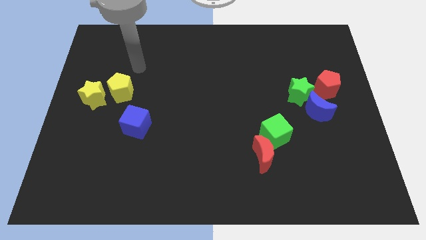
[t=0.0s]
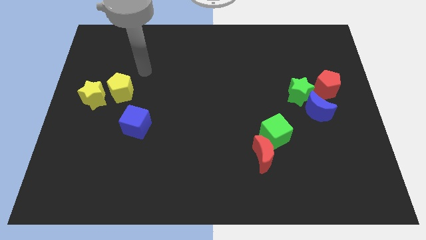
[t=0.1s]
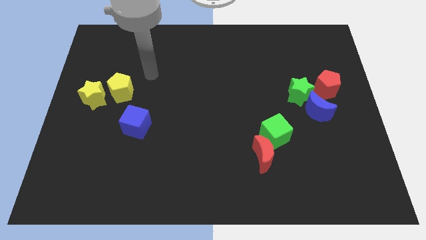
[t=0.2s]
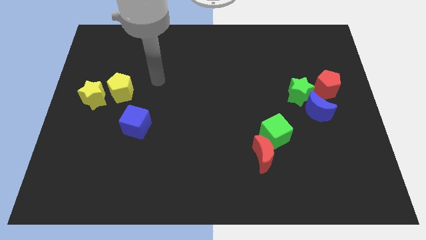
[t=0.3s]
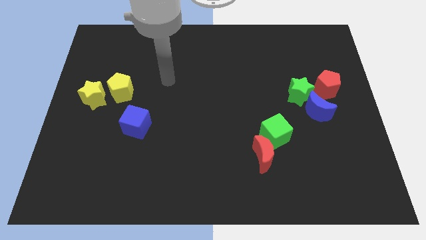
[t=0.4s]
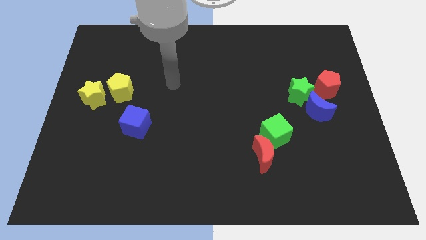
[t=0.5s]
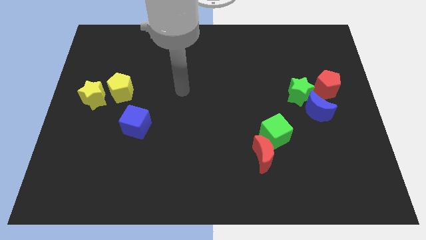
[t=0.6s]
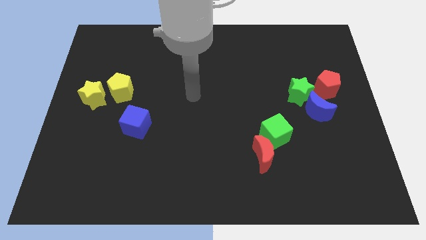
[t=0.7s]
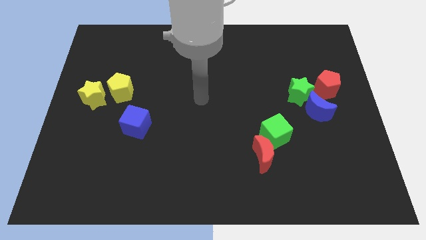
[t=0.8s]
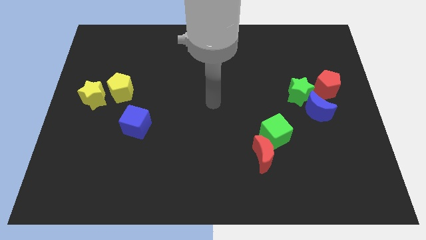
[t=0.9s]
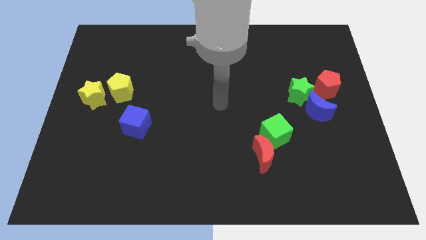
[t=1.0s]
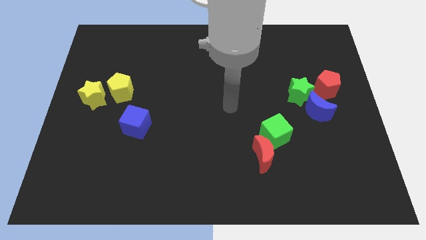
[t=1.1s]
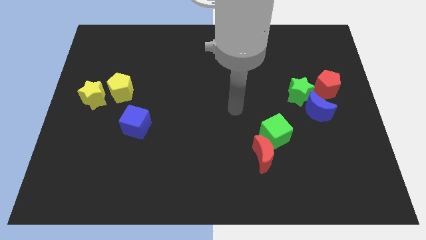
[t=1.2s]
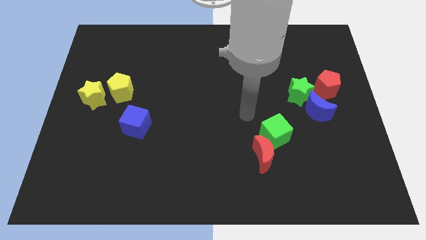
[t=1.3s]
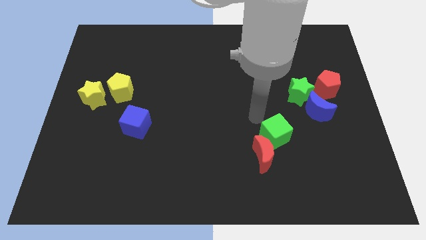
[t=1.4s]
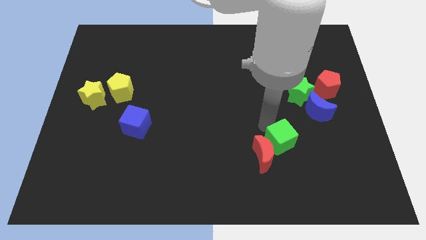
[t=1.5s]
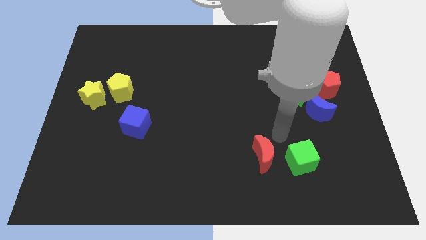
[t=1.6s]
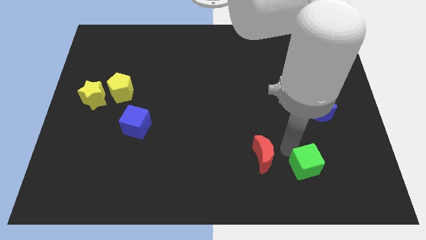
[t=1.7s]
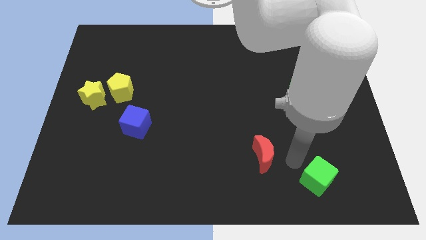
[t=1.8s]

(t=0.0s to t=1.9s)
pull the red moon apart from the green cube

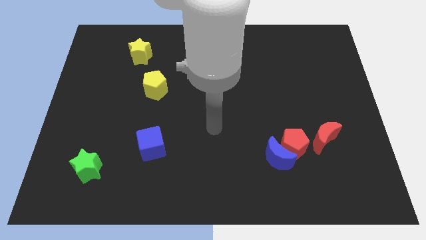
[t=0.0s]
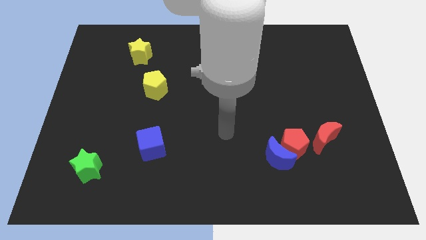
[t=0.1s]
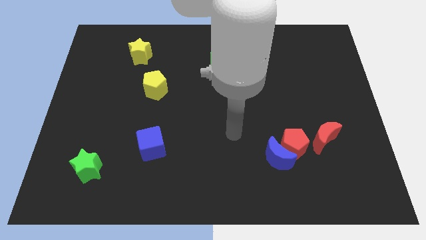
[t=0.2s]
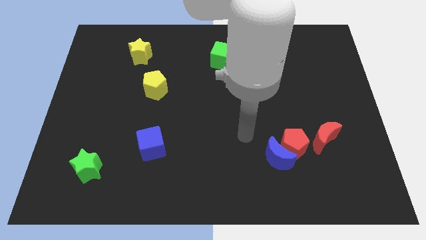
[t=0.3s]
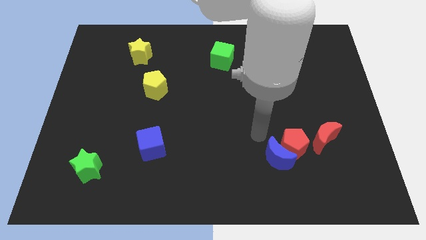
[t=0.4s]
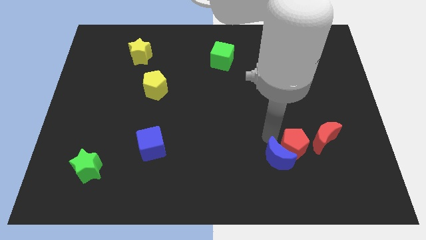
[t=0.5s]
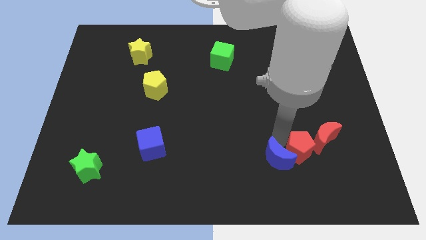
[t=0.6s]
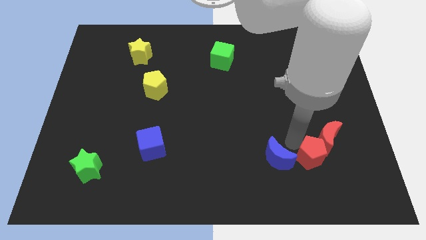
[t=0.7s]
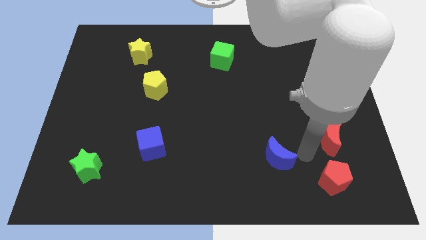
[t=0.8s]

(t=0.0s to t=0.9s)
pull the blue moon apart from the red pentagon

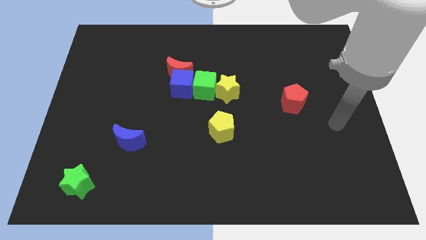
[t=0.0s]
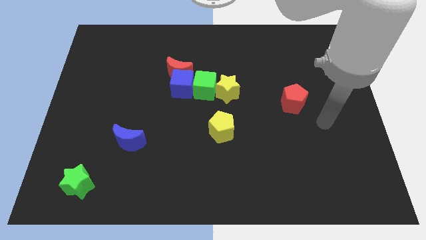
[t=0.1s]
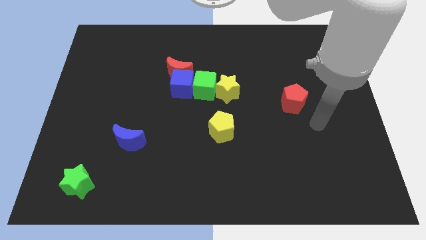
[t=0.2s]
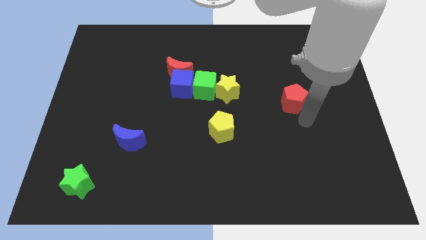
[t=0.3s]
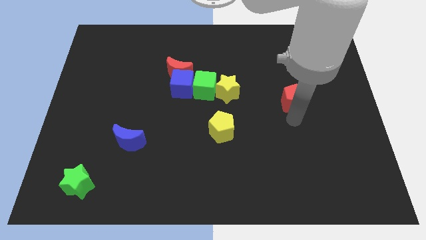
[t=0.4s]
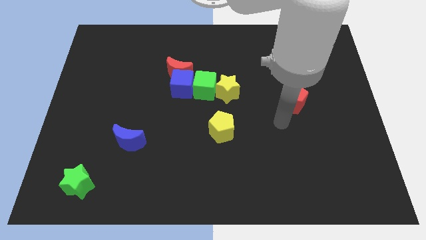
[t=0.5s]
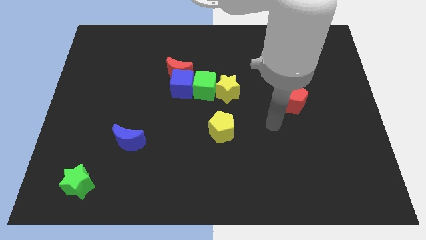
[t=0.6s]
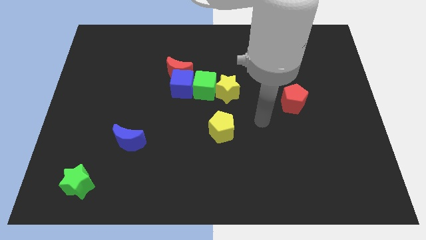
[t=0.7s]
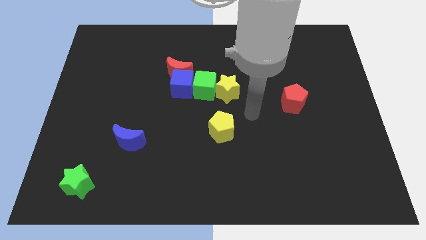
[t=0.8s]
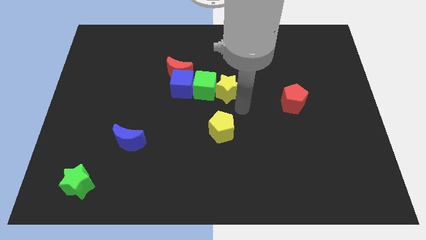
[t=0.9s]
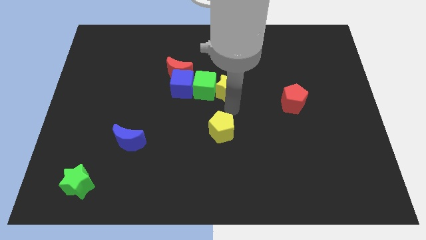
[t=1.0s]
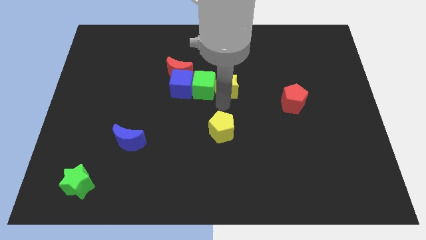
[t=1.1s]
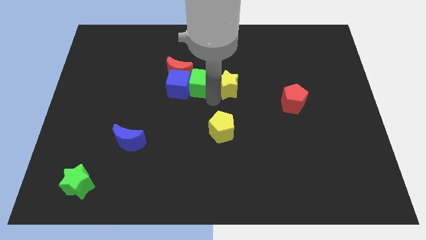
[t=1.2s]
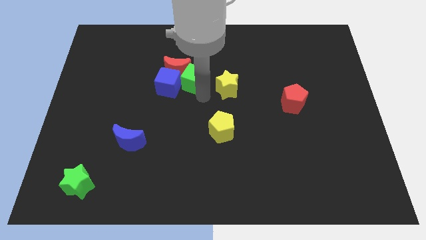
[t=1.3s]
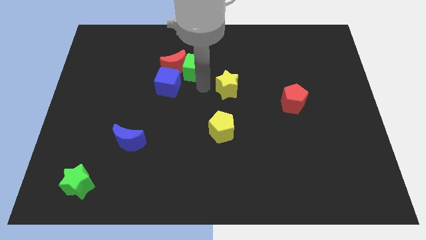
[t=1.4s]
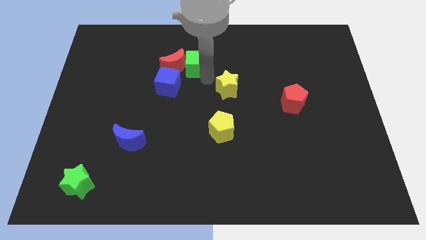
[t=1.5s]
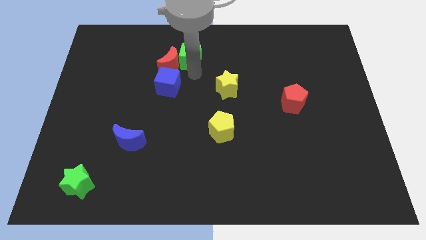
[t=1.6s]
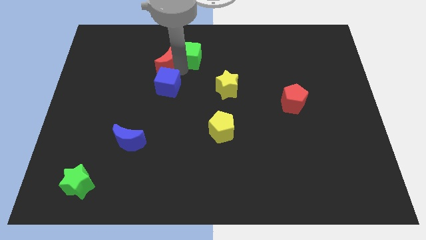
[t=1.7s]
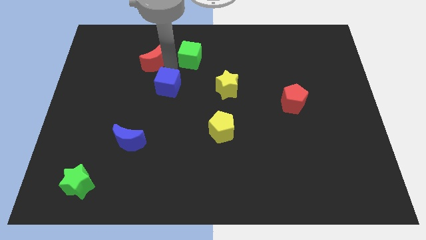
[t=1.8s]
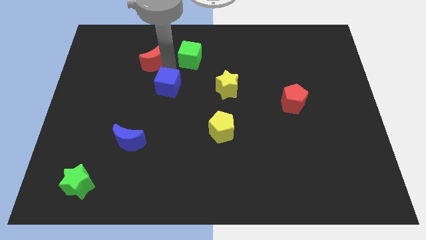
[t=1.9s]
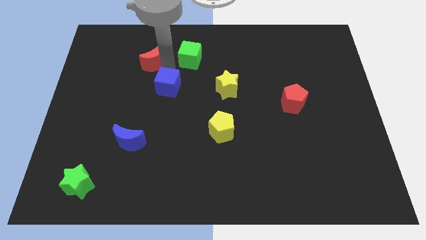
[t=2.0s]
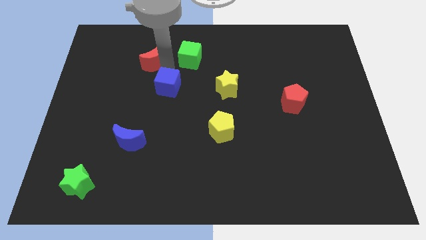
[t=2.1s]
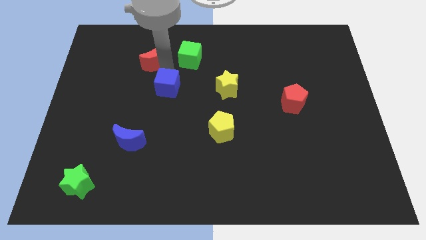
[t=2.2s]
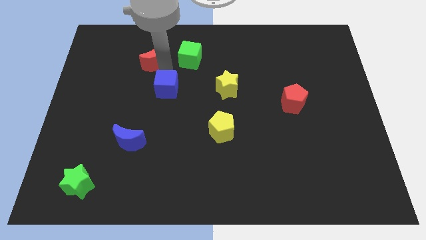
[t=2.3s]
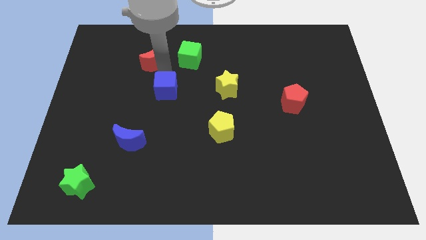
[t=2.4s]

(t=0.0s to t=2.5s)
pull the blue cube apart from the red moon and green cube

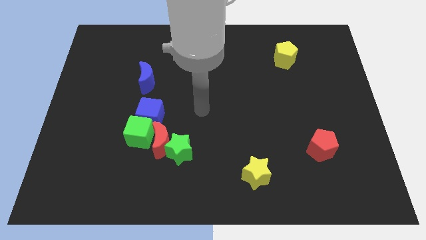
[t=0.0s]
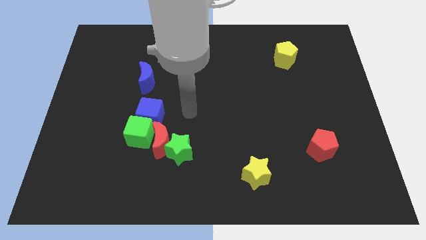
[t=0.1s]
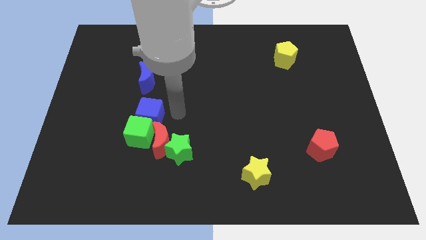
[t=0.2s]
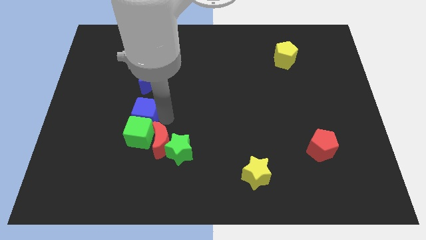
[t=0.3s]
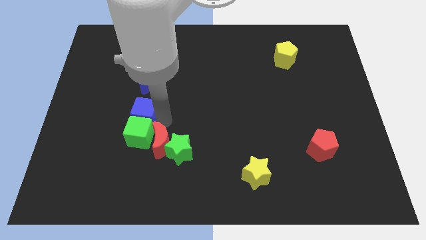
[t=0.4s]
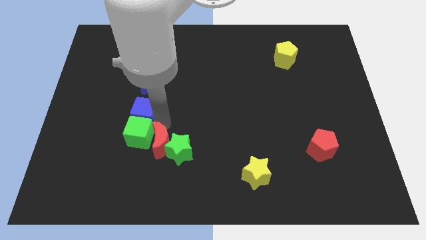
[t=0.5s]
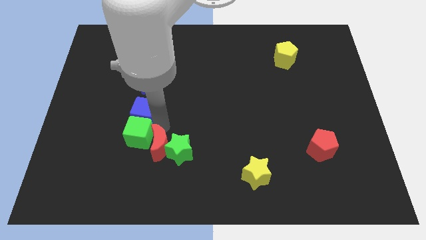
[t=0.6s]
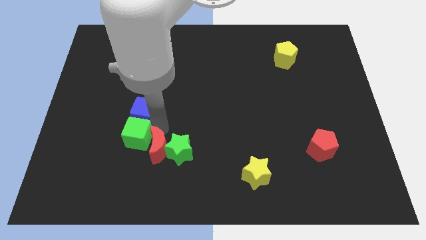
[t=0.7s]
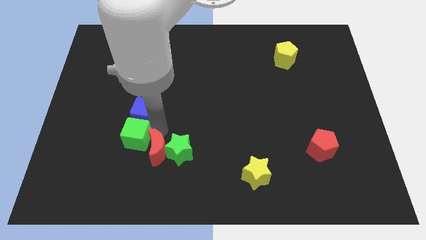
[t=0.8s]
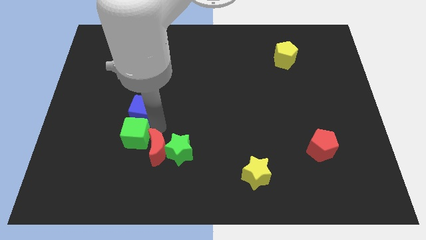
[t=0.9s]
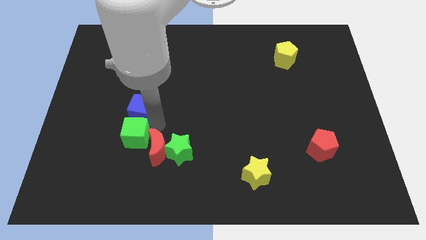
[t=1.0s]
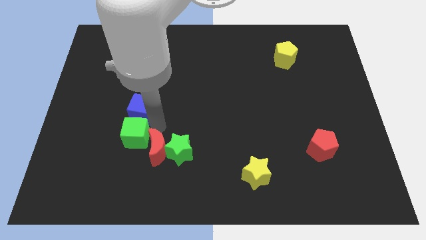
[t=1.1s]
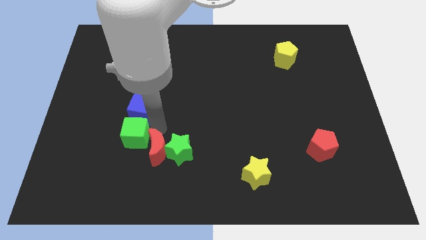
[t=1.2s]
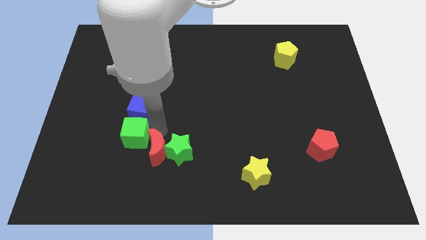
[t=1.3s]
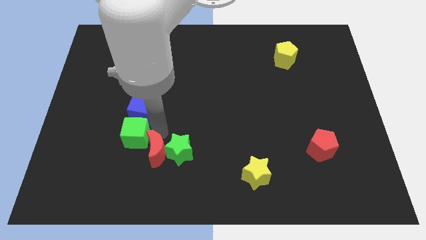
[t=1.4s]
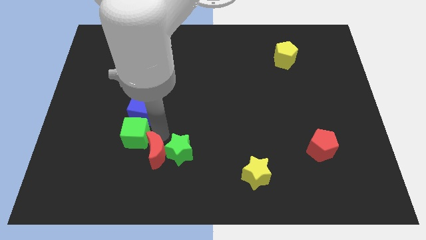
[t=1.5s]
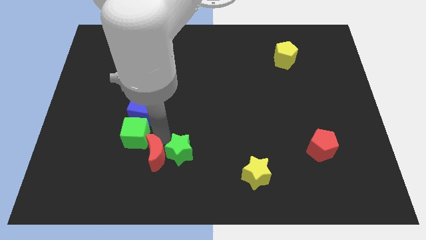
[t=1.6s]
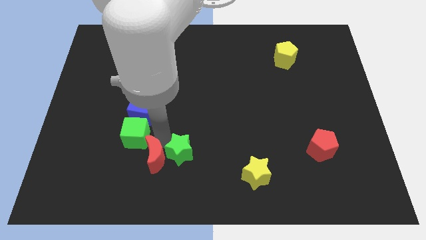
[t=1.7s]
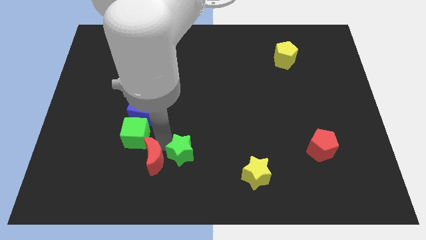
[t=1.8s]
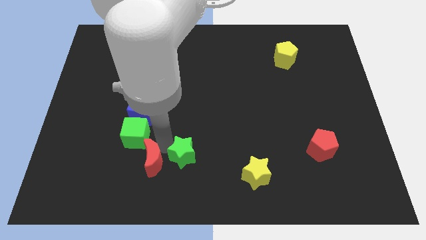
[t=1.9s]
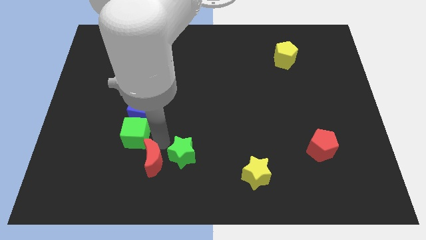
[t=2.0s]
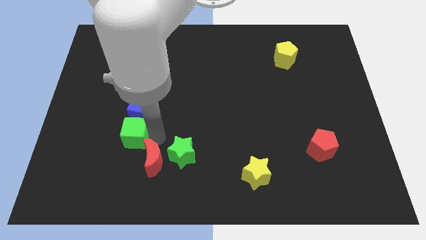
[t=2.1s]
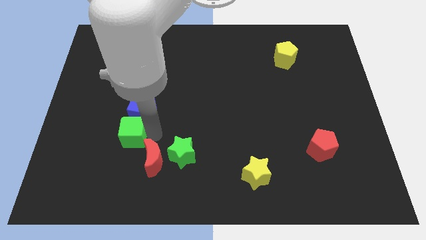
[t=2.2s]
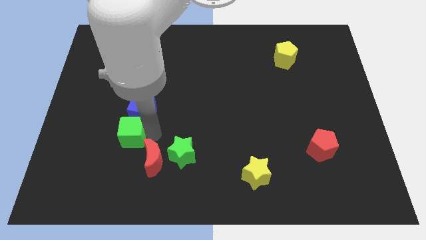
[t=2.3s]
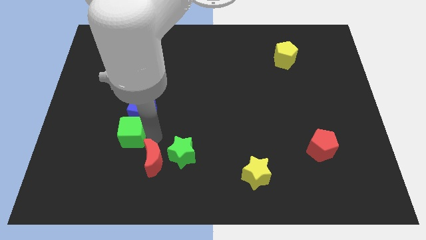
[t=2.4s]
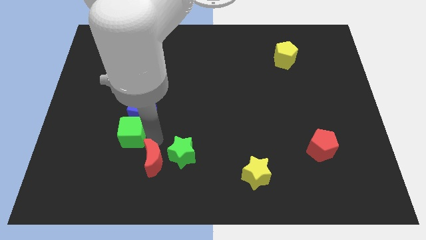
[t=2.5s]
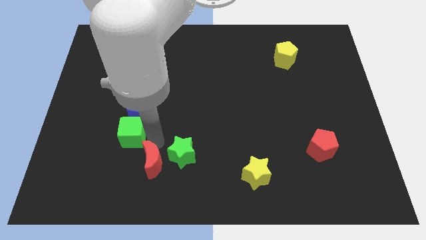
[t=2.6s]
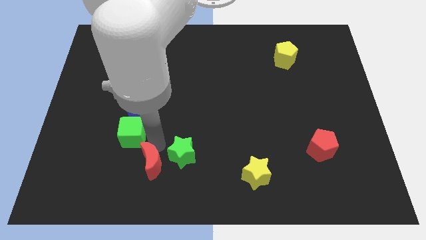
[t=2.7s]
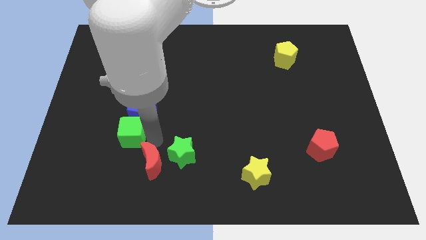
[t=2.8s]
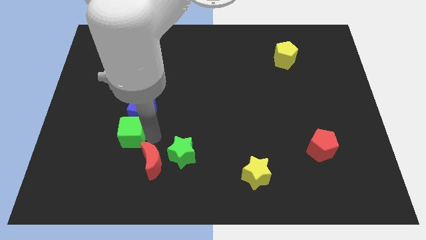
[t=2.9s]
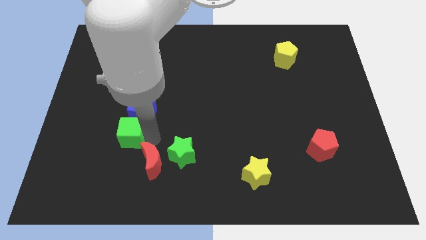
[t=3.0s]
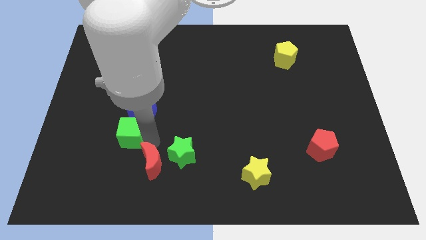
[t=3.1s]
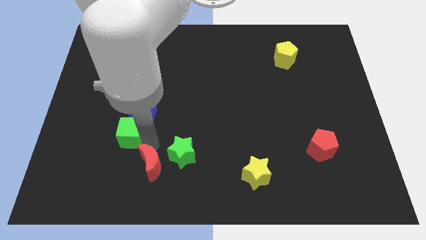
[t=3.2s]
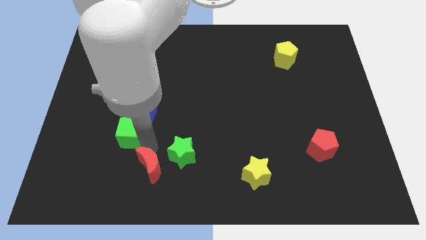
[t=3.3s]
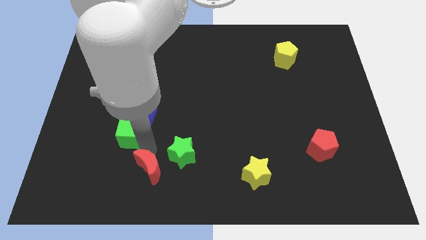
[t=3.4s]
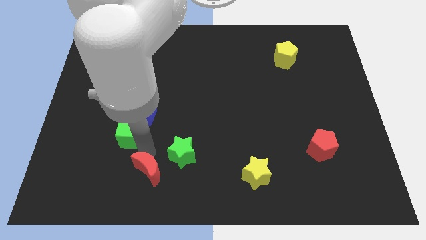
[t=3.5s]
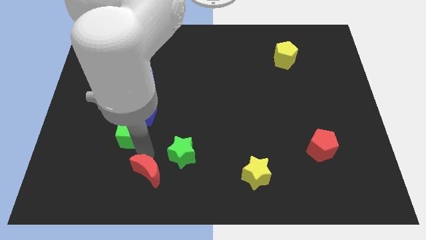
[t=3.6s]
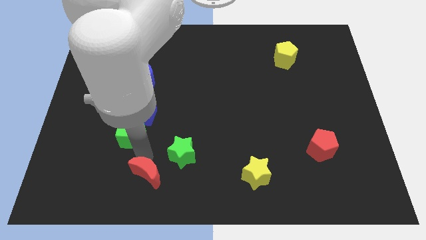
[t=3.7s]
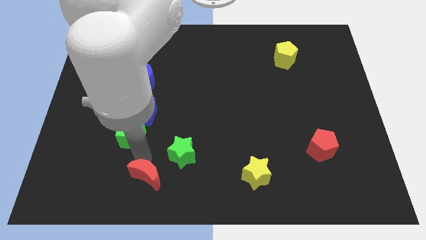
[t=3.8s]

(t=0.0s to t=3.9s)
separate the red moon from the group
